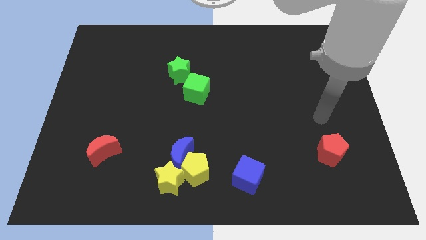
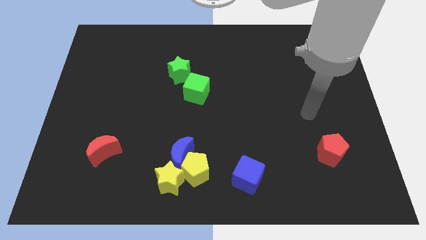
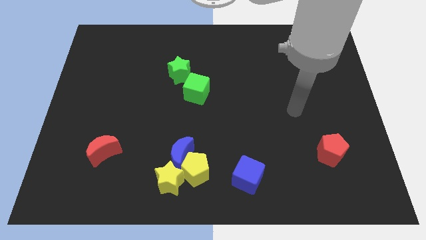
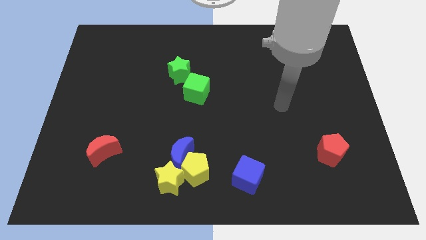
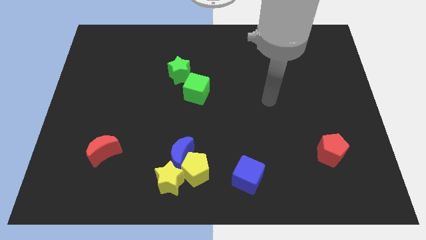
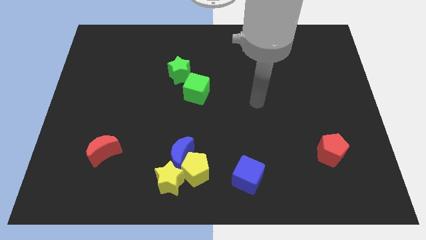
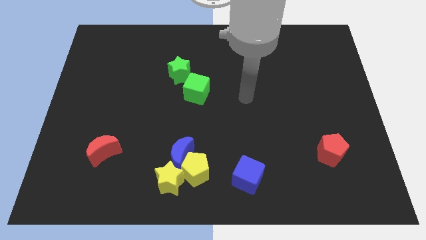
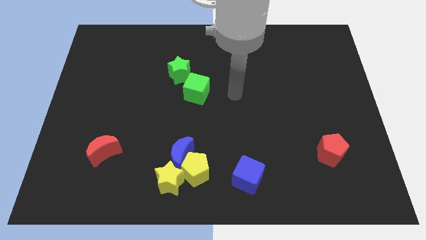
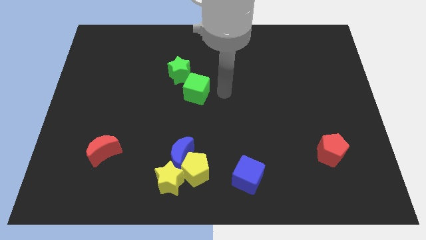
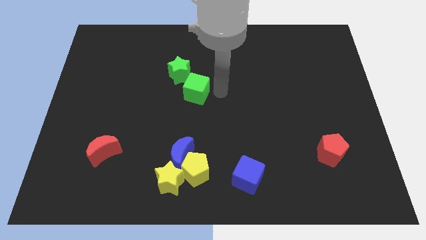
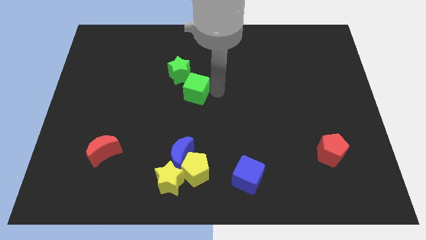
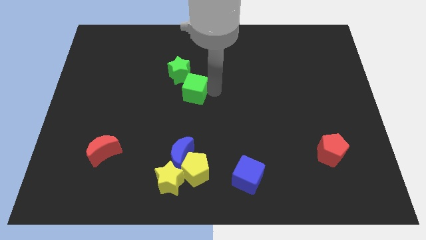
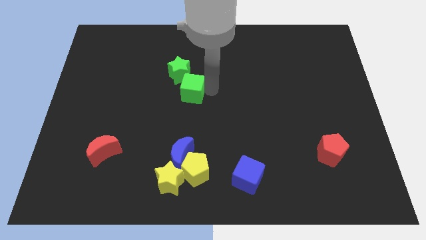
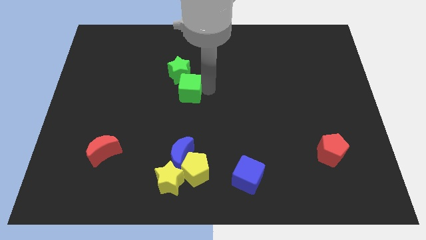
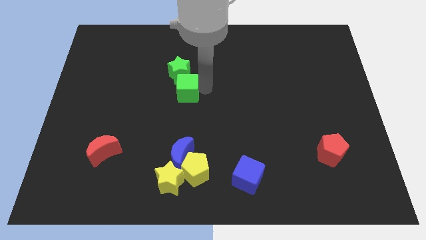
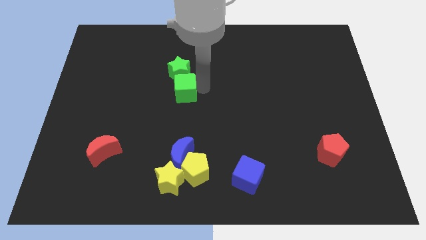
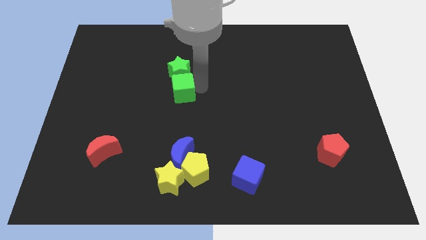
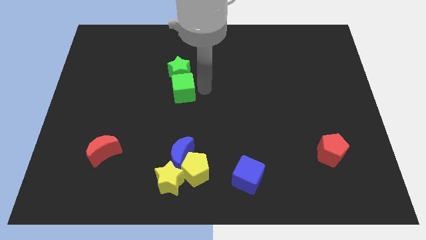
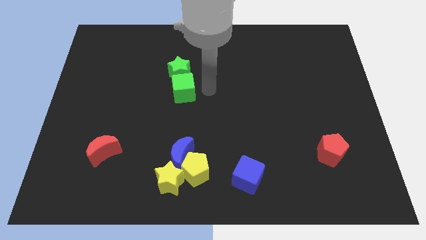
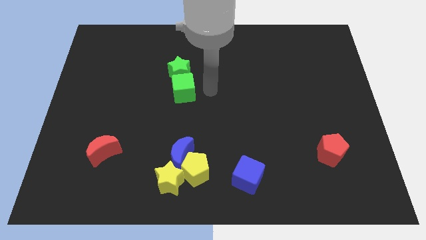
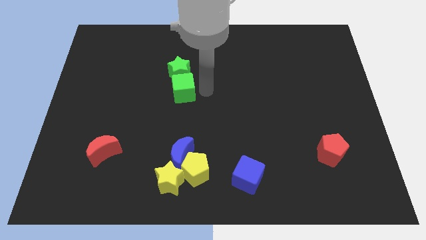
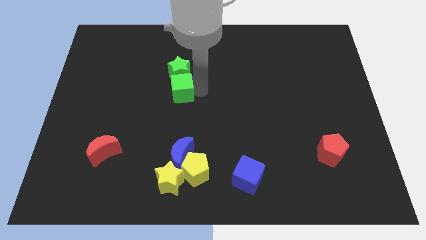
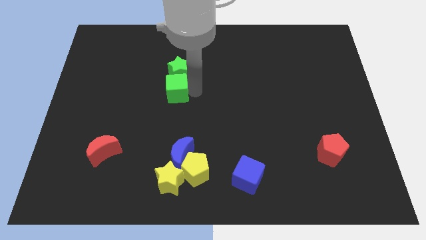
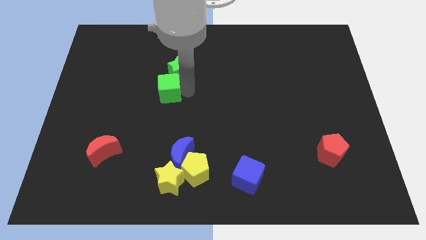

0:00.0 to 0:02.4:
slightly push the green cube left

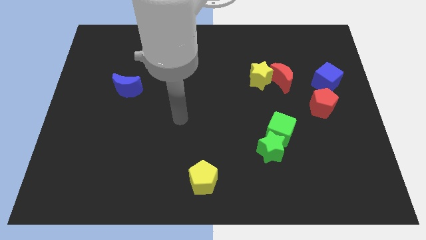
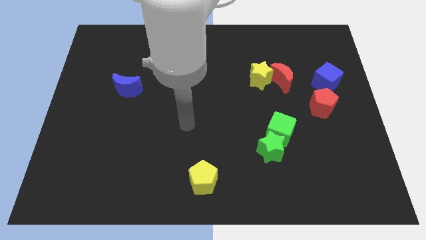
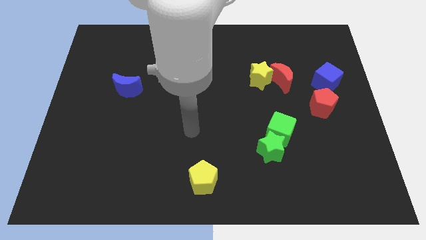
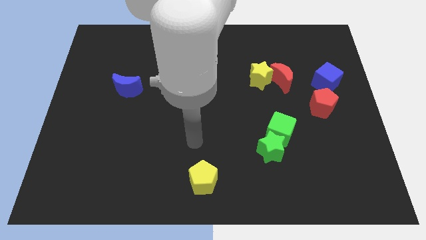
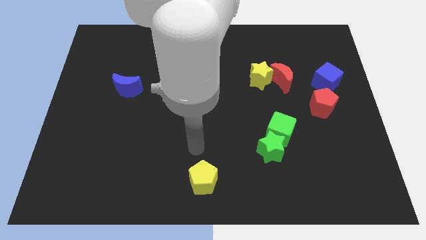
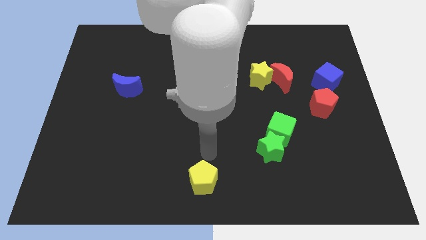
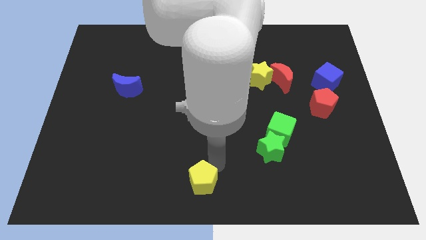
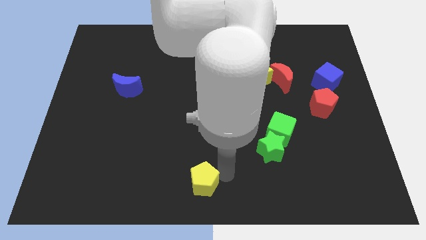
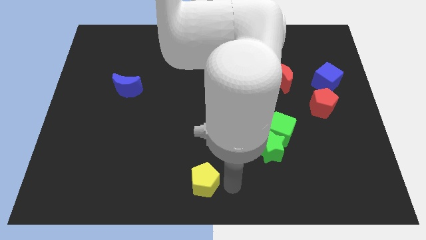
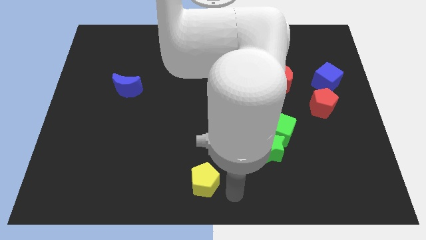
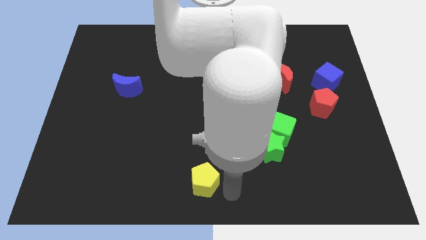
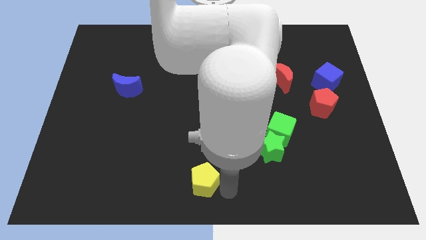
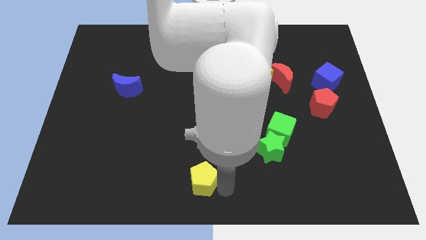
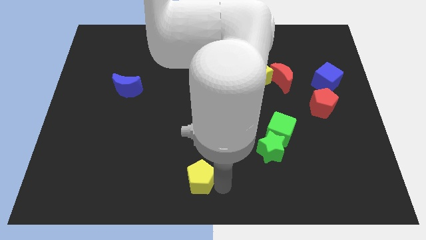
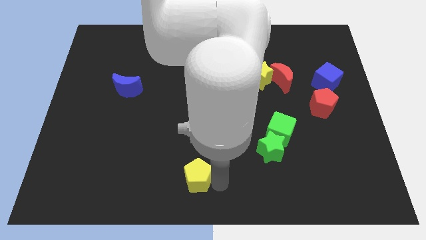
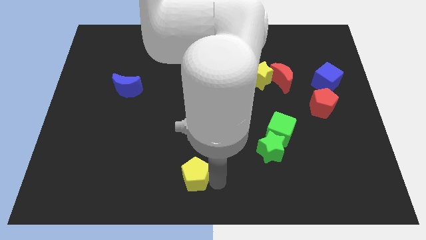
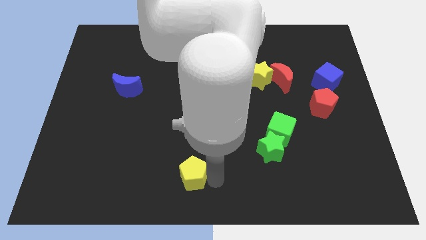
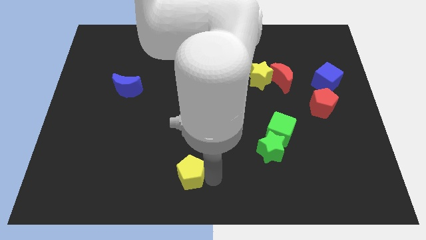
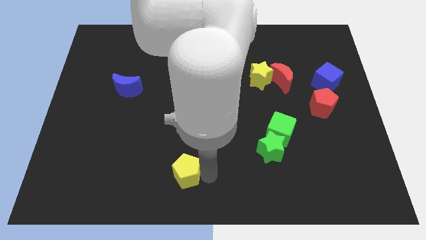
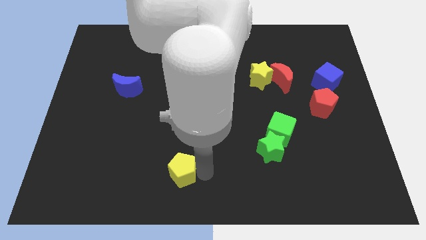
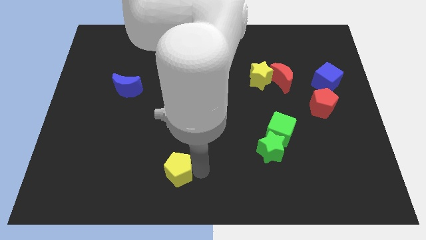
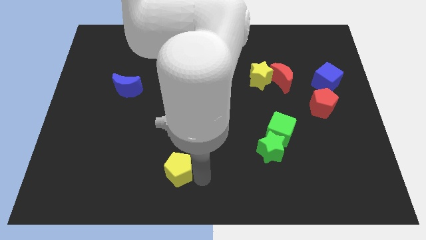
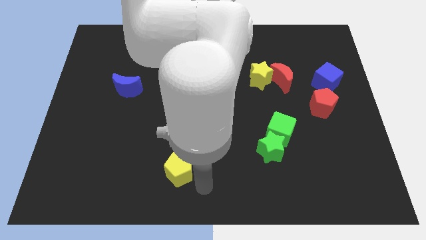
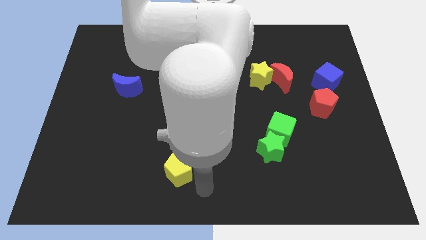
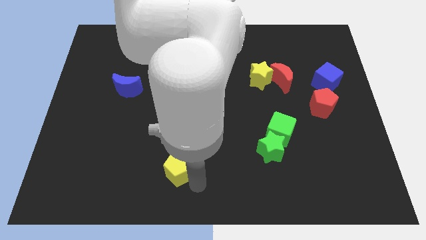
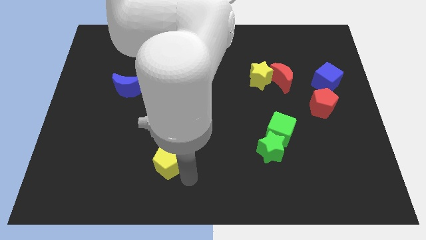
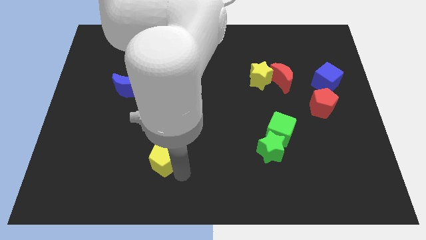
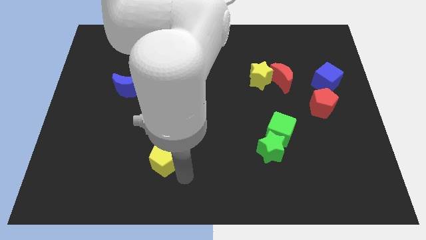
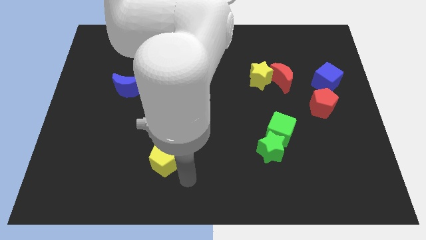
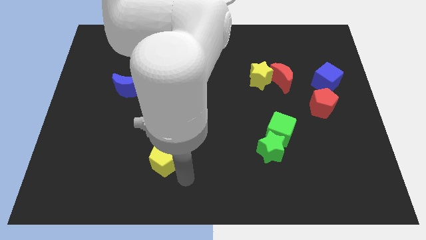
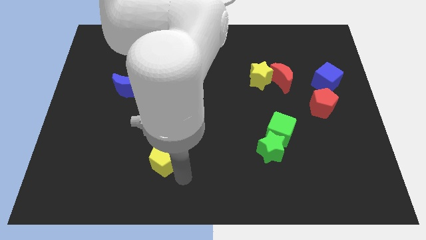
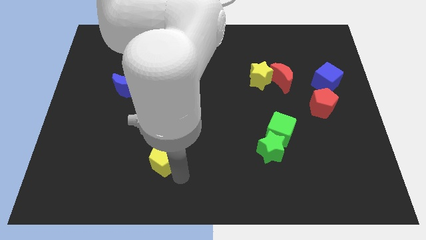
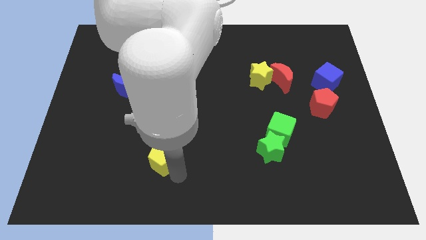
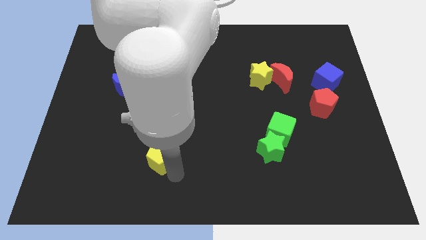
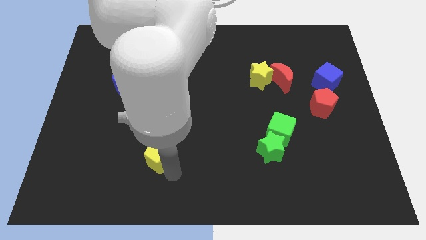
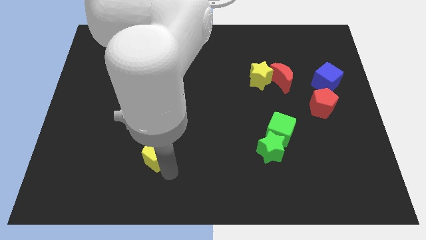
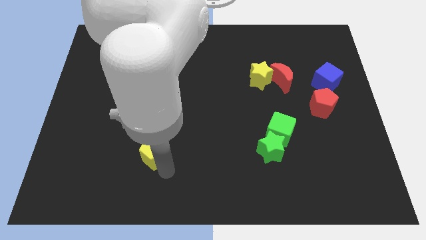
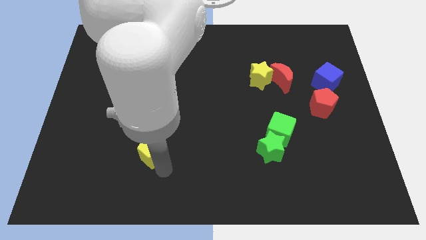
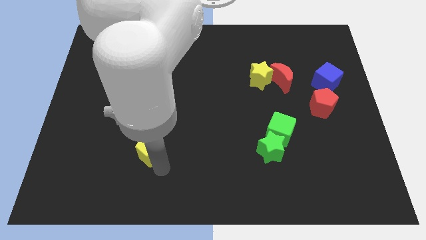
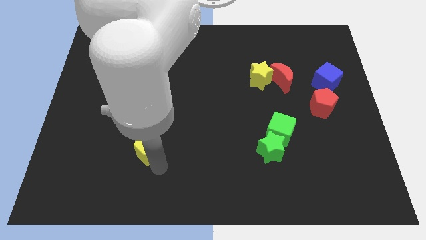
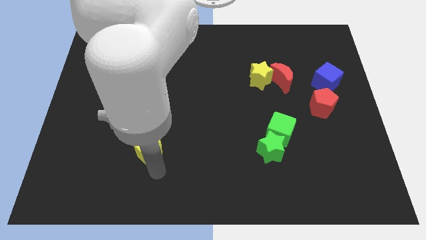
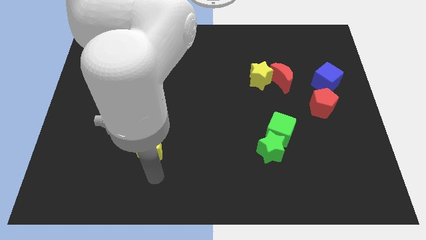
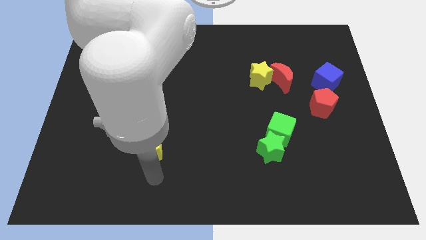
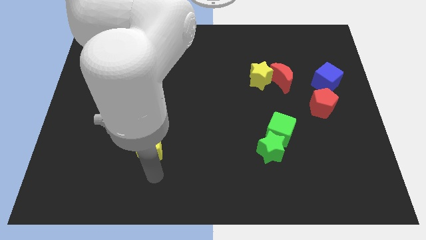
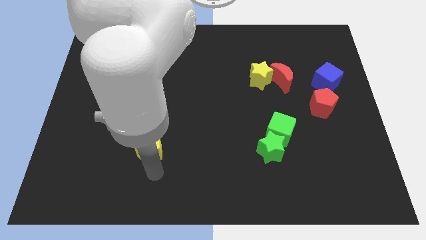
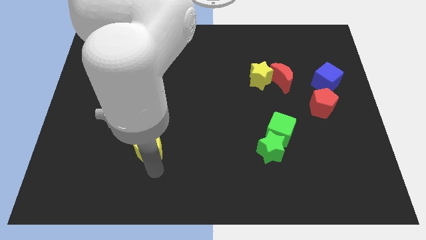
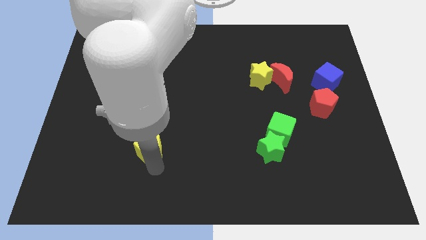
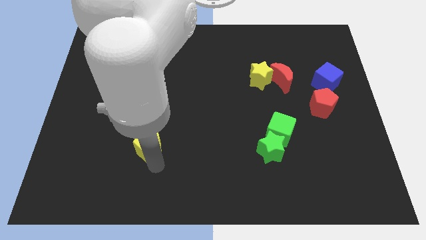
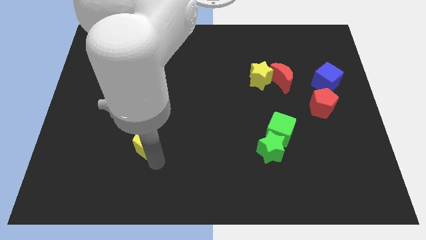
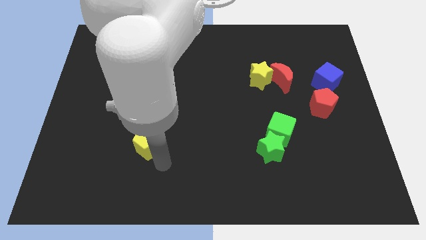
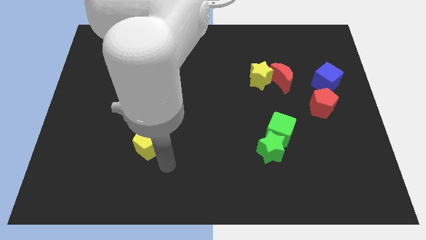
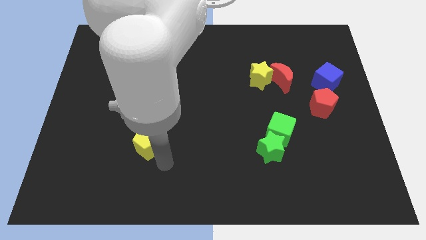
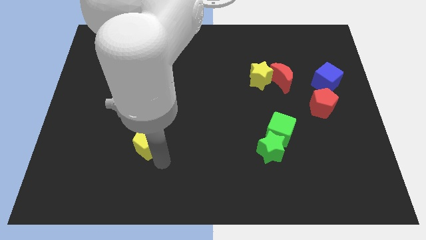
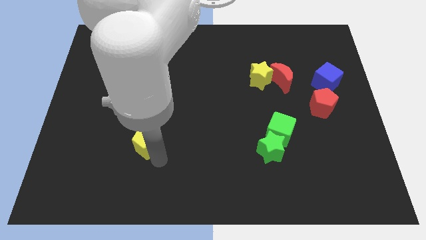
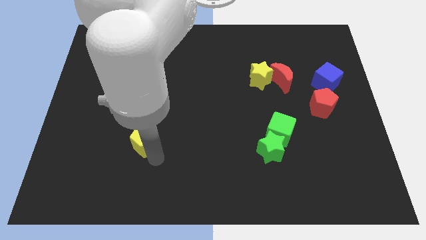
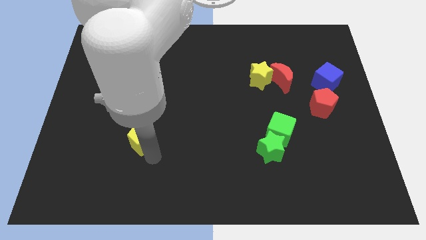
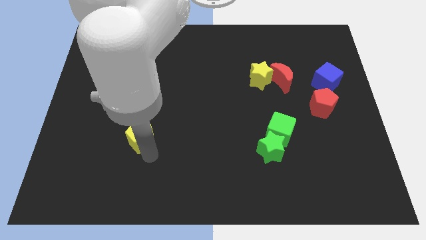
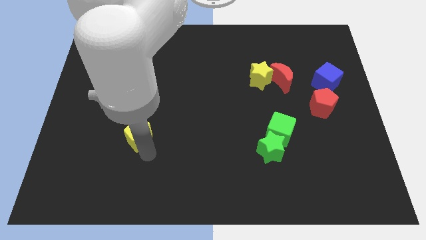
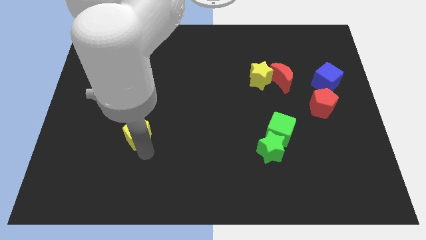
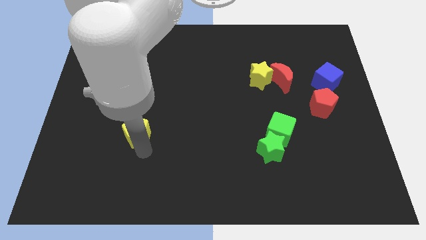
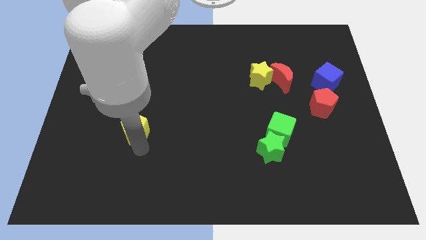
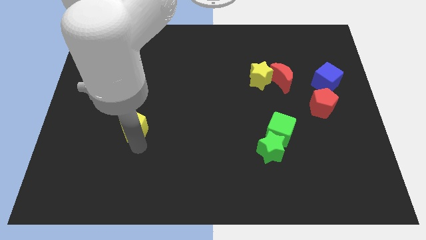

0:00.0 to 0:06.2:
push the yellow pentagon diagonally up and to the left
